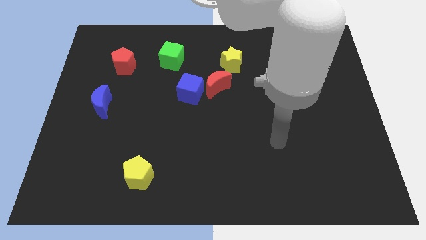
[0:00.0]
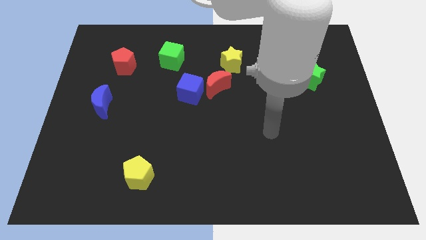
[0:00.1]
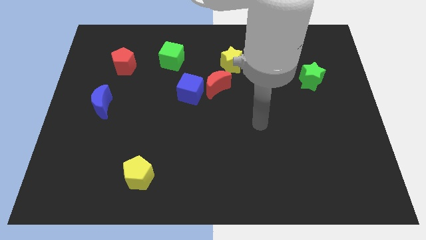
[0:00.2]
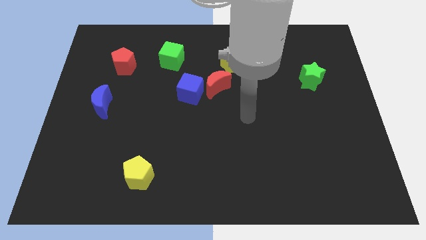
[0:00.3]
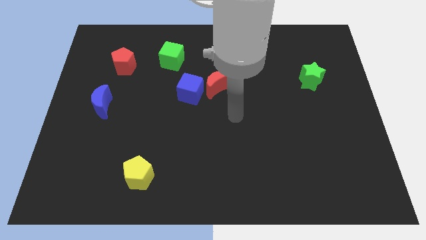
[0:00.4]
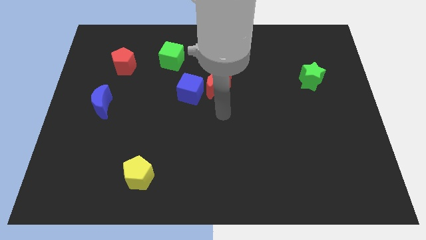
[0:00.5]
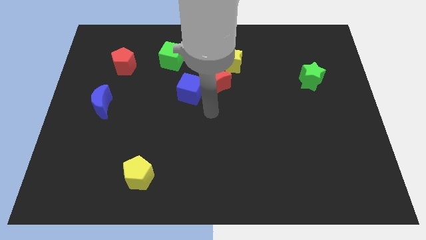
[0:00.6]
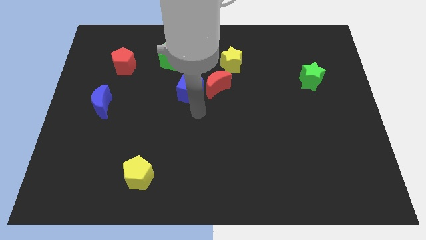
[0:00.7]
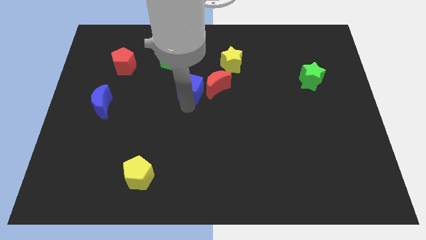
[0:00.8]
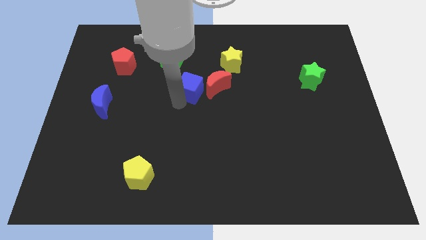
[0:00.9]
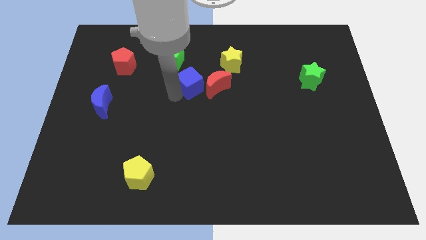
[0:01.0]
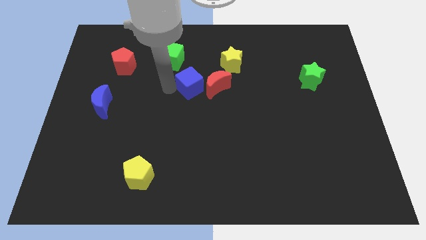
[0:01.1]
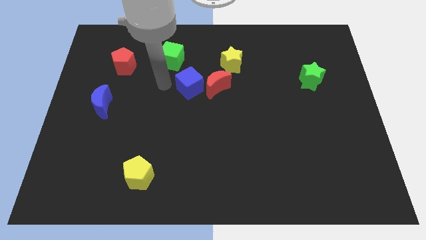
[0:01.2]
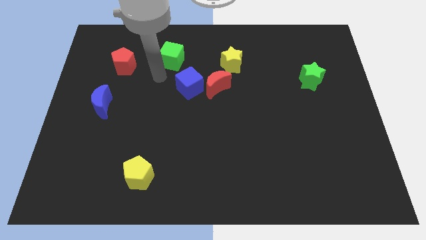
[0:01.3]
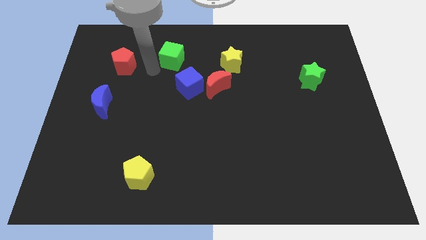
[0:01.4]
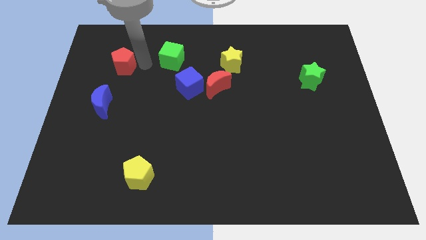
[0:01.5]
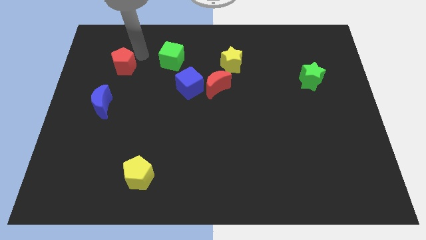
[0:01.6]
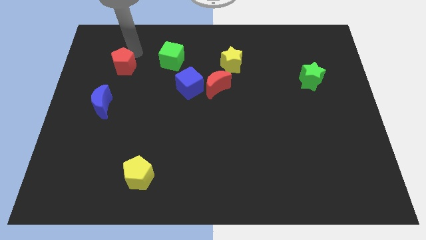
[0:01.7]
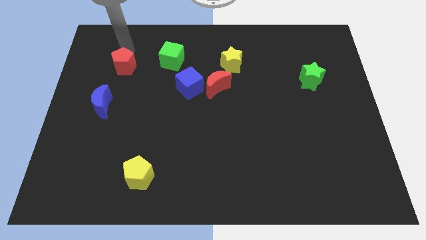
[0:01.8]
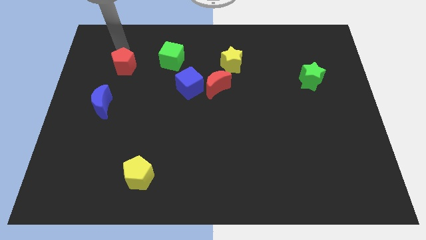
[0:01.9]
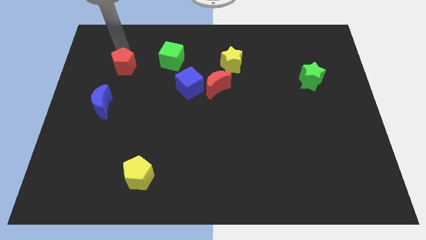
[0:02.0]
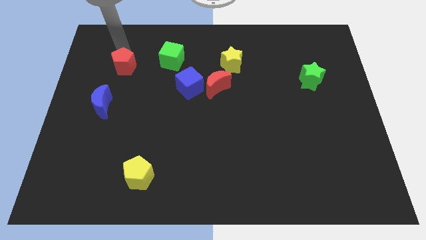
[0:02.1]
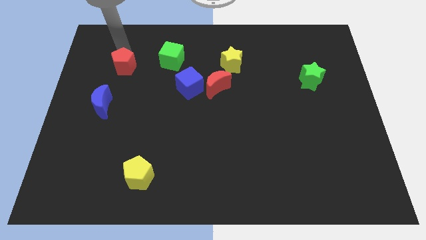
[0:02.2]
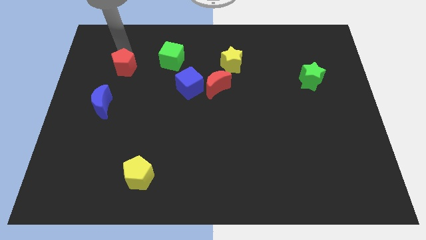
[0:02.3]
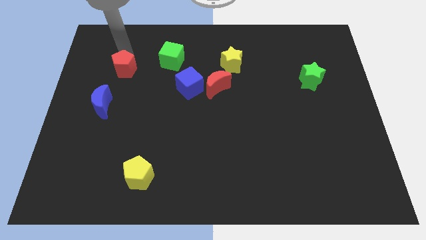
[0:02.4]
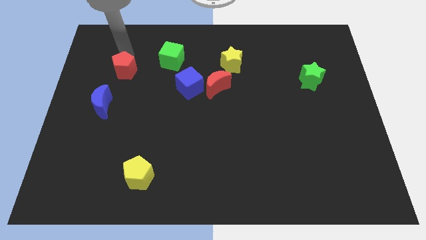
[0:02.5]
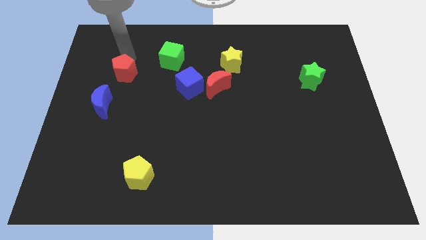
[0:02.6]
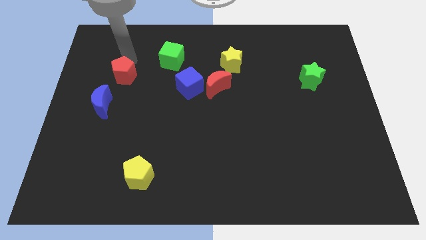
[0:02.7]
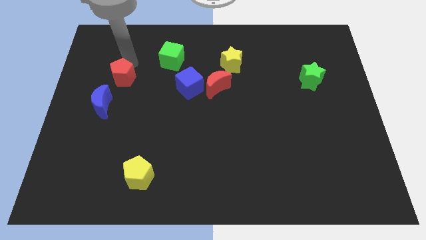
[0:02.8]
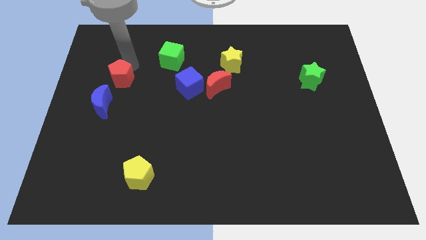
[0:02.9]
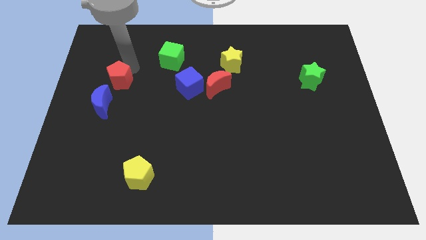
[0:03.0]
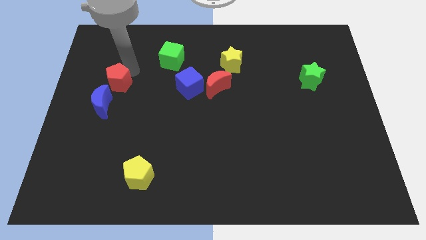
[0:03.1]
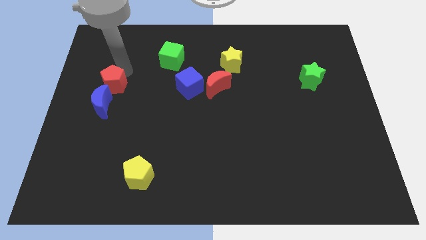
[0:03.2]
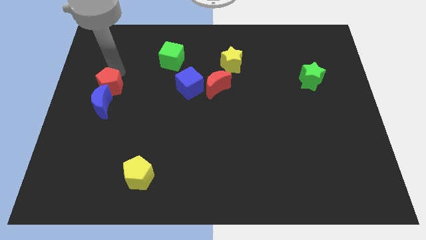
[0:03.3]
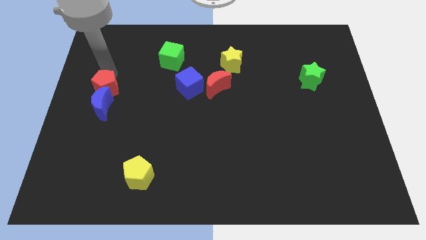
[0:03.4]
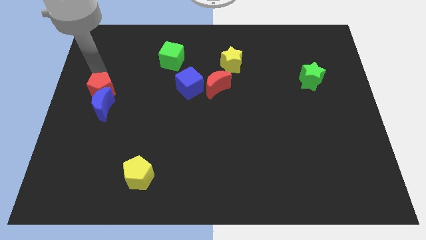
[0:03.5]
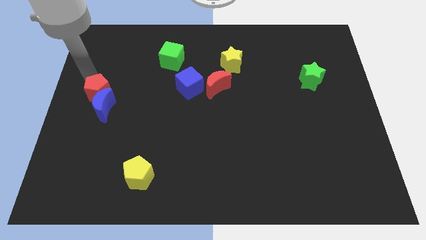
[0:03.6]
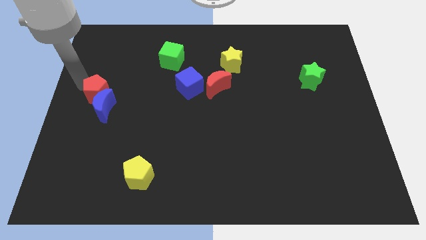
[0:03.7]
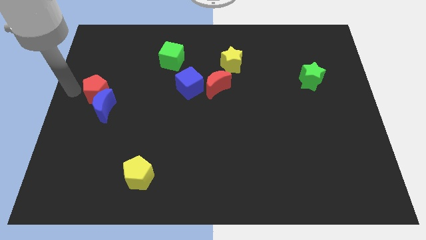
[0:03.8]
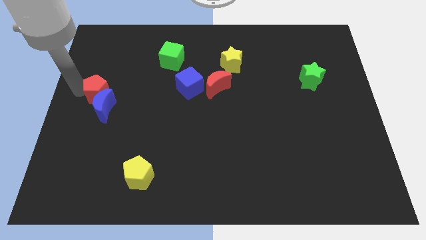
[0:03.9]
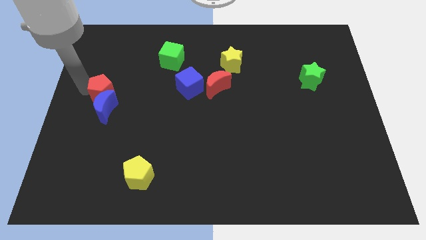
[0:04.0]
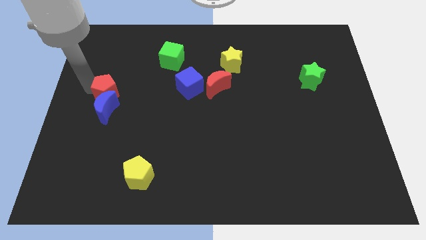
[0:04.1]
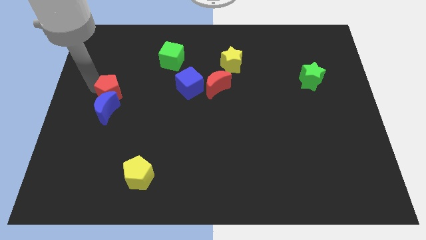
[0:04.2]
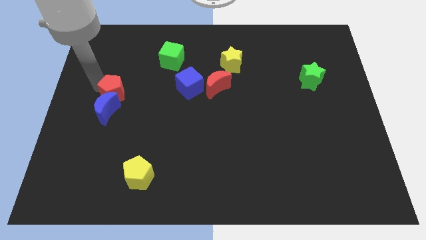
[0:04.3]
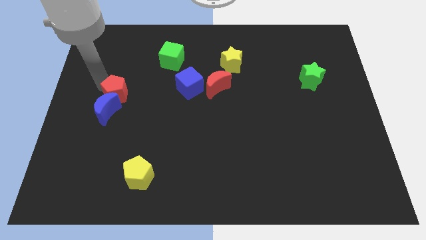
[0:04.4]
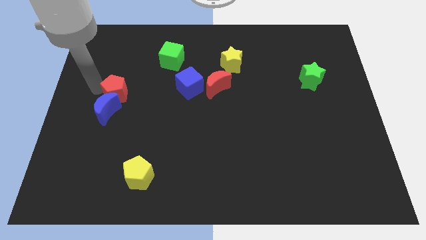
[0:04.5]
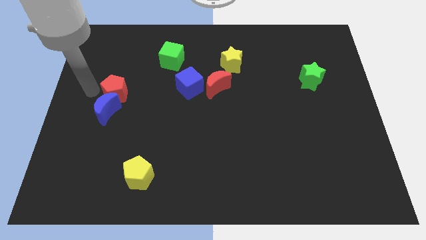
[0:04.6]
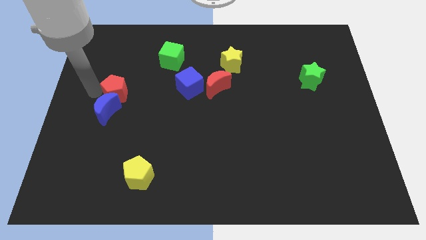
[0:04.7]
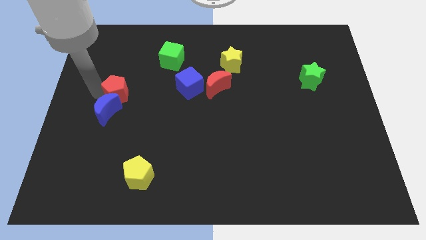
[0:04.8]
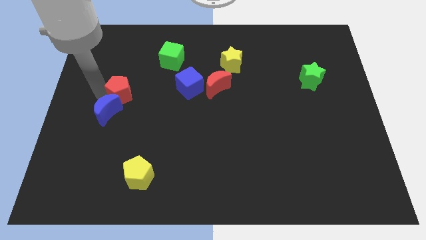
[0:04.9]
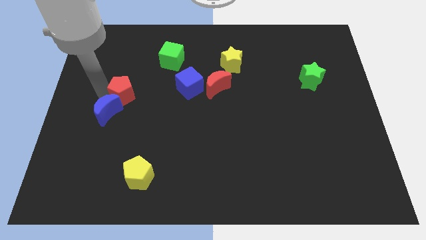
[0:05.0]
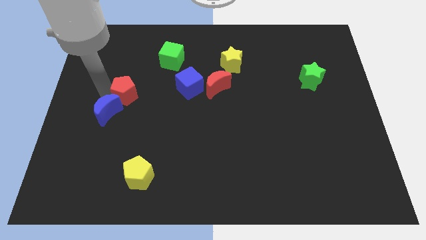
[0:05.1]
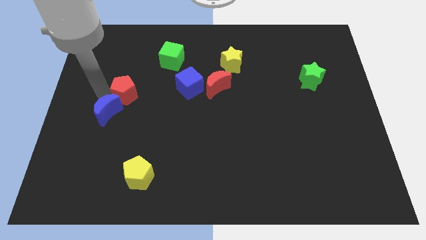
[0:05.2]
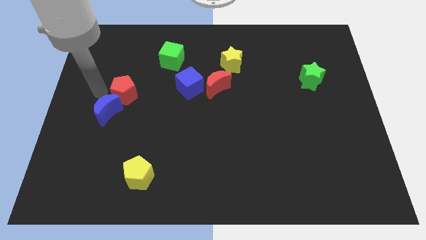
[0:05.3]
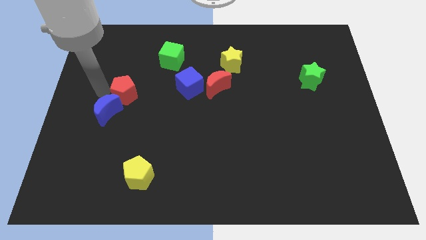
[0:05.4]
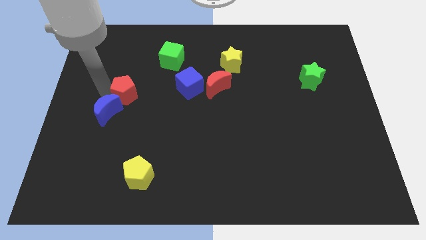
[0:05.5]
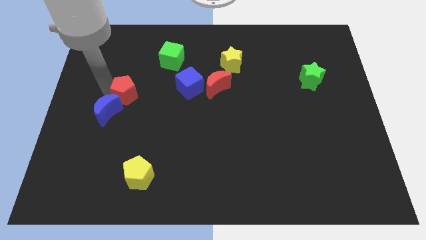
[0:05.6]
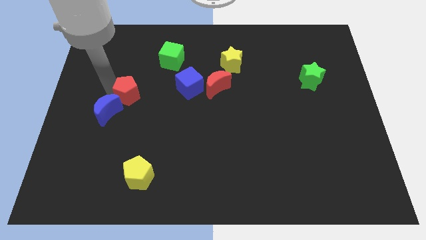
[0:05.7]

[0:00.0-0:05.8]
push the red pentagon down and right diagonally a little

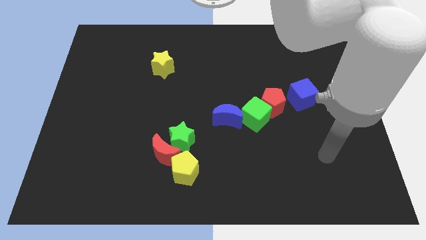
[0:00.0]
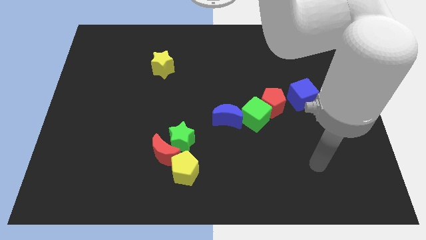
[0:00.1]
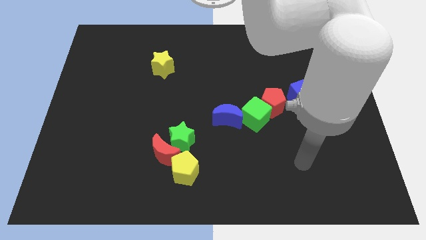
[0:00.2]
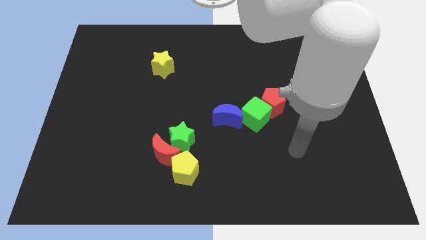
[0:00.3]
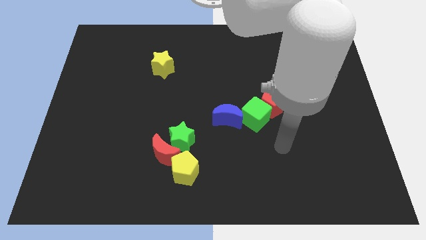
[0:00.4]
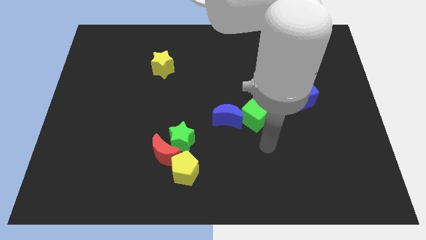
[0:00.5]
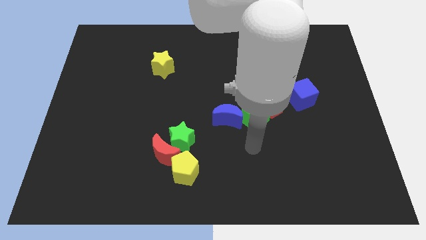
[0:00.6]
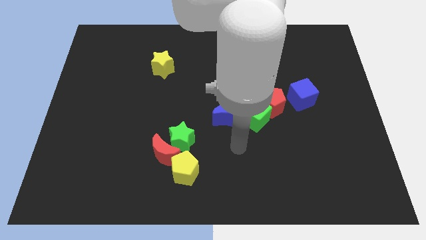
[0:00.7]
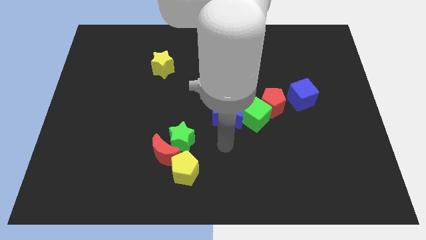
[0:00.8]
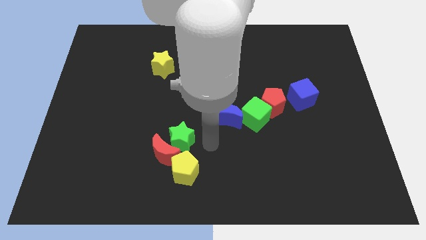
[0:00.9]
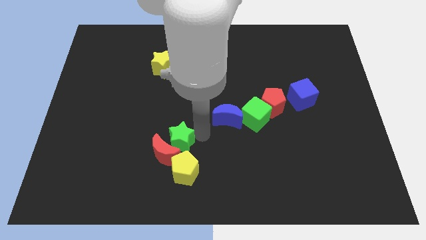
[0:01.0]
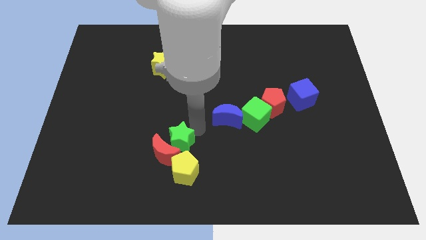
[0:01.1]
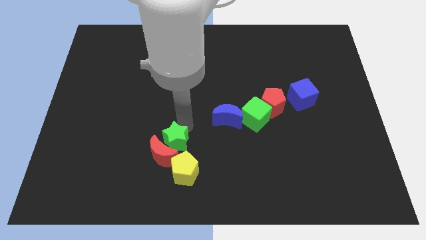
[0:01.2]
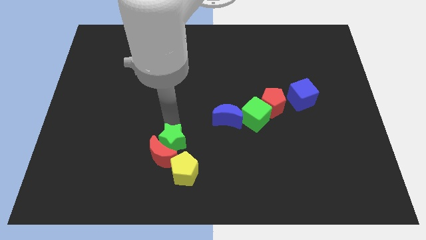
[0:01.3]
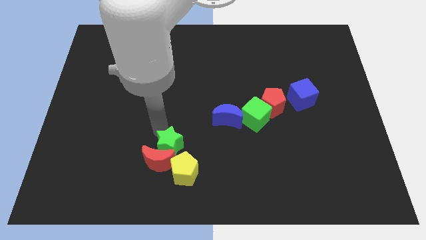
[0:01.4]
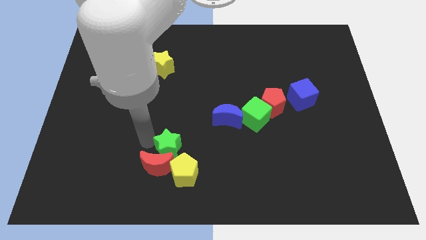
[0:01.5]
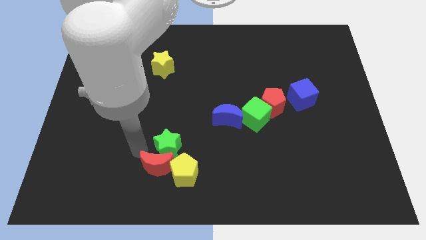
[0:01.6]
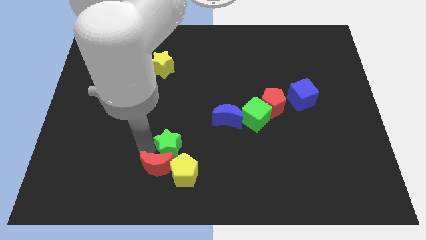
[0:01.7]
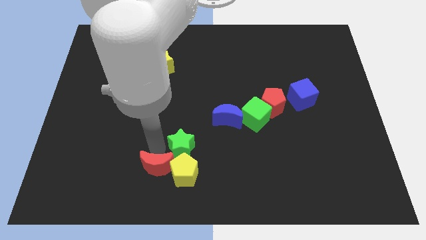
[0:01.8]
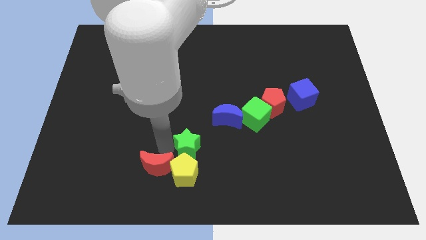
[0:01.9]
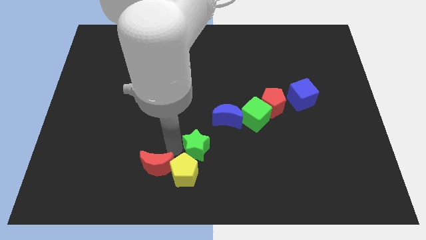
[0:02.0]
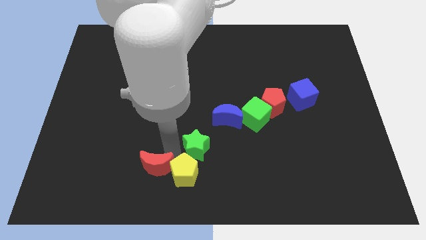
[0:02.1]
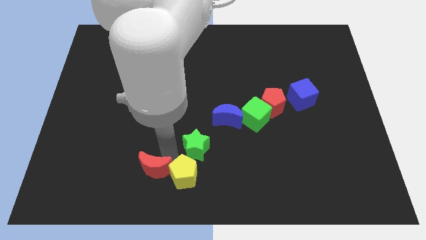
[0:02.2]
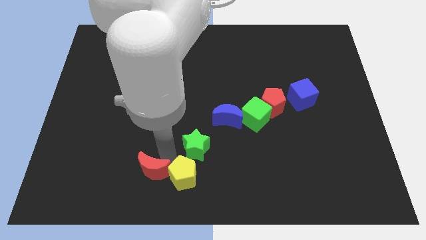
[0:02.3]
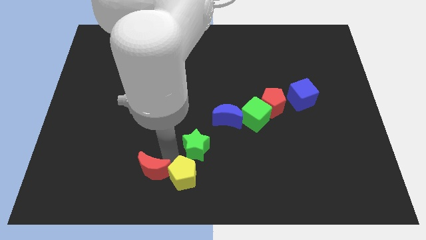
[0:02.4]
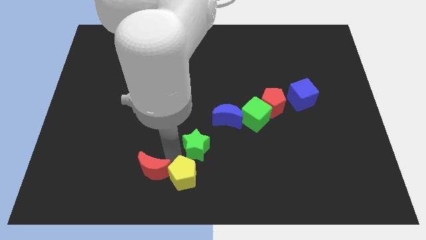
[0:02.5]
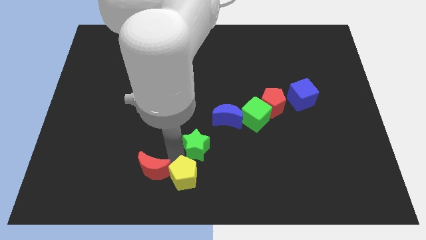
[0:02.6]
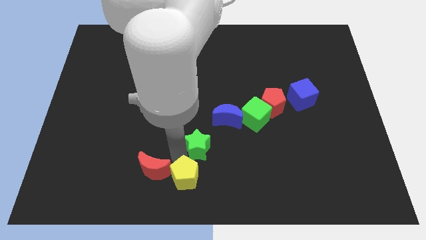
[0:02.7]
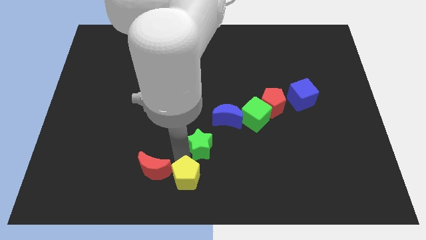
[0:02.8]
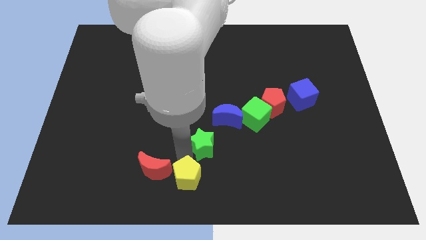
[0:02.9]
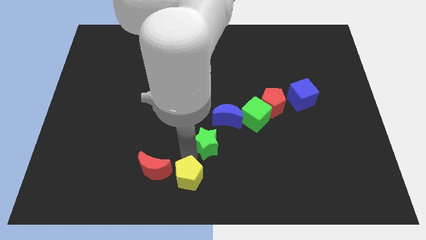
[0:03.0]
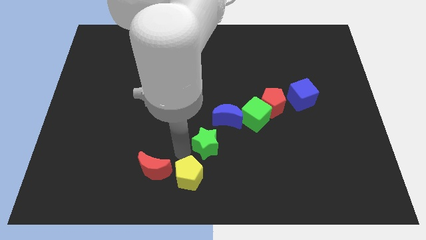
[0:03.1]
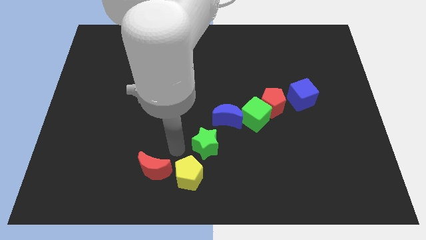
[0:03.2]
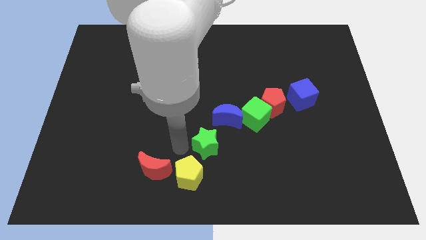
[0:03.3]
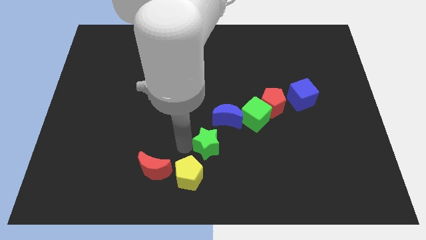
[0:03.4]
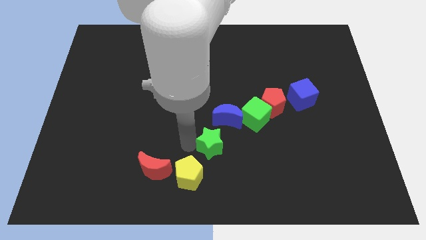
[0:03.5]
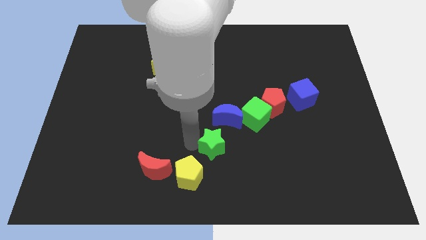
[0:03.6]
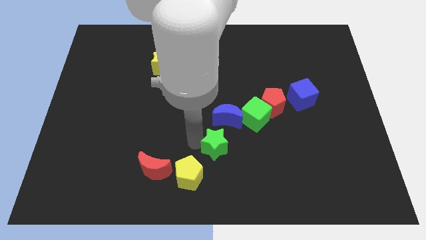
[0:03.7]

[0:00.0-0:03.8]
slightly slide the green star to the right
